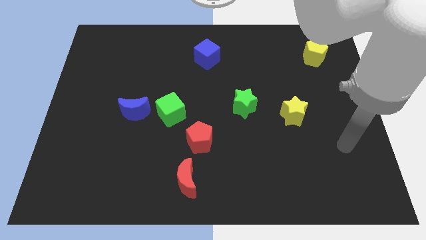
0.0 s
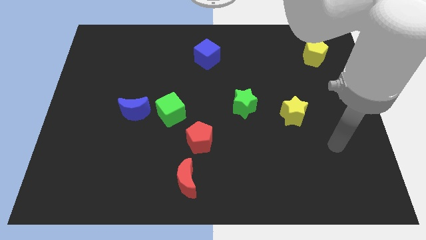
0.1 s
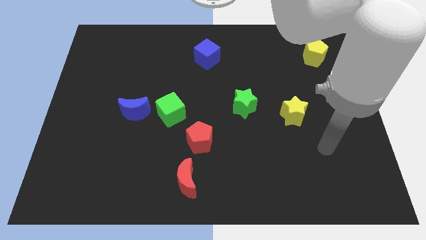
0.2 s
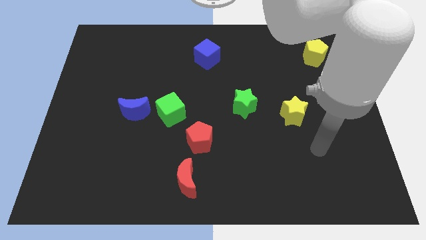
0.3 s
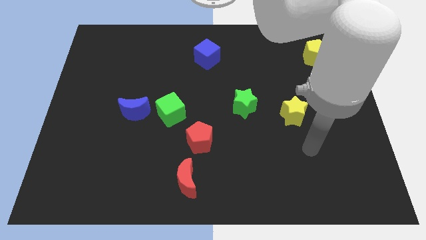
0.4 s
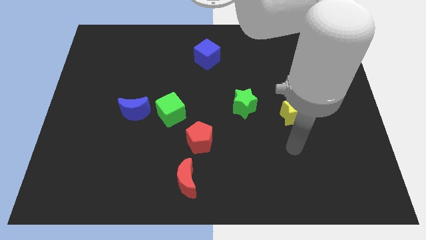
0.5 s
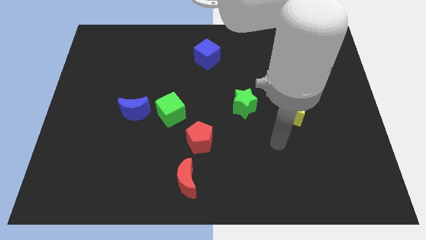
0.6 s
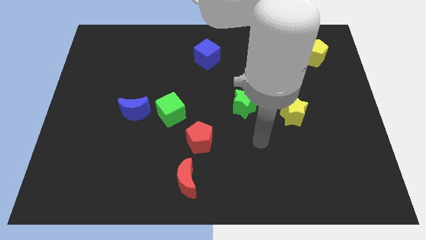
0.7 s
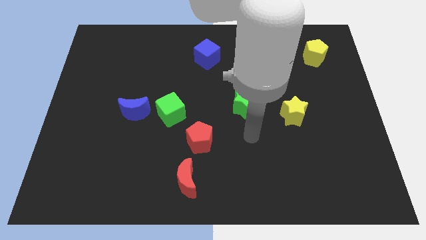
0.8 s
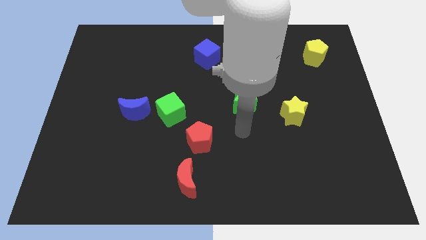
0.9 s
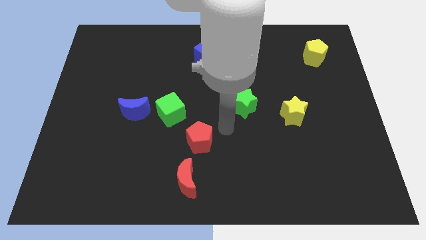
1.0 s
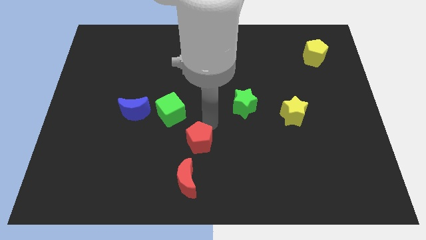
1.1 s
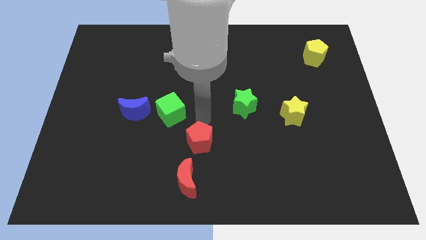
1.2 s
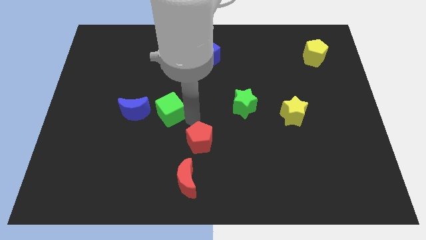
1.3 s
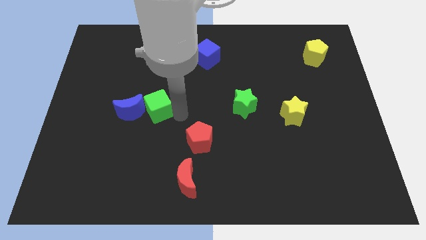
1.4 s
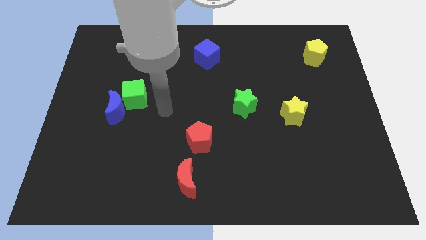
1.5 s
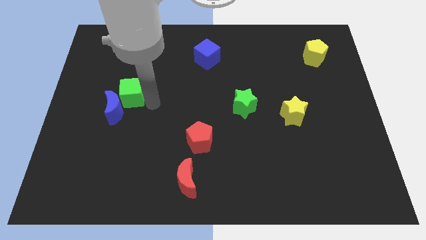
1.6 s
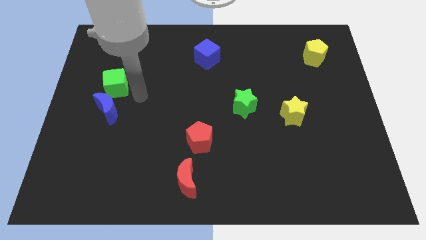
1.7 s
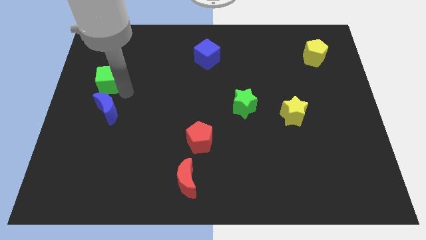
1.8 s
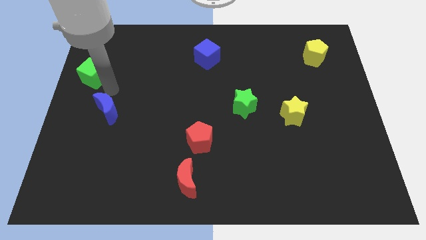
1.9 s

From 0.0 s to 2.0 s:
move the blue moon away from the green cube

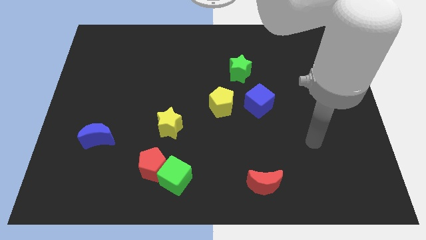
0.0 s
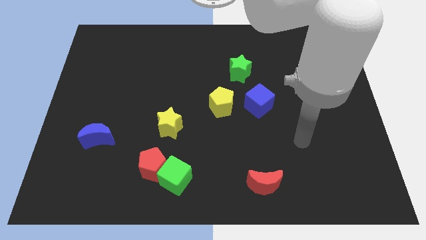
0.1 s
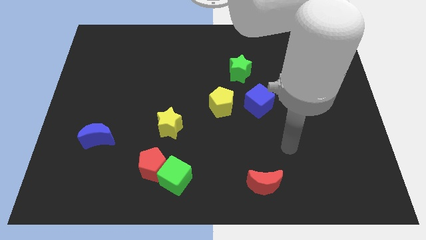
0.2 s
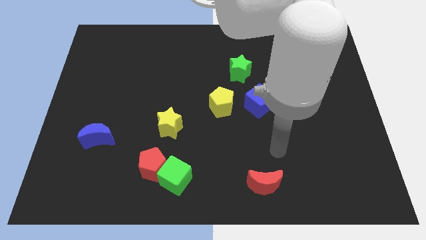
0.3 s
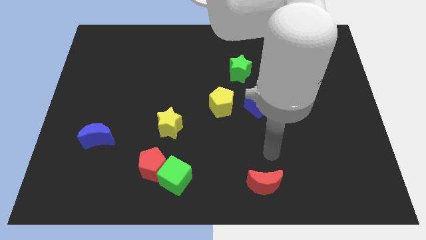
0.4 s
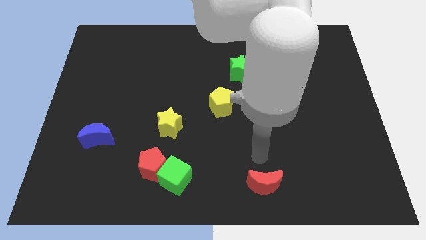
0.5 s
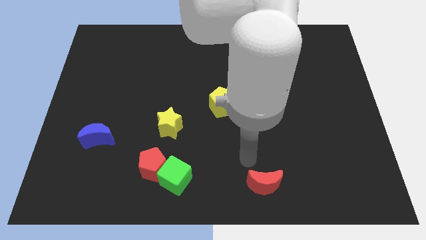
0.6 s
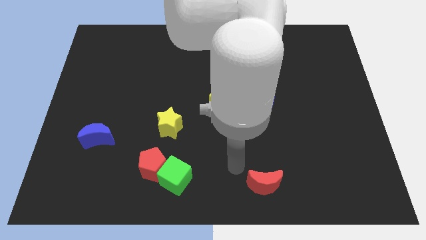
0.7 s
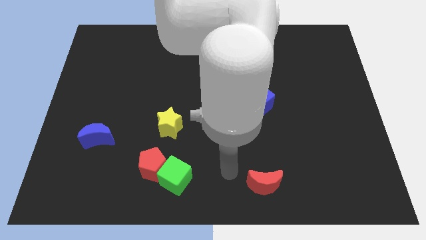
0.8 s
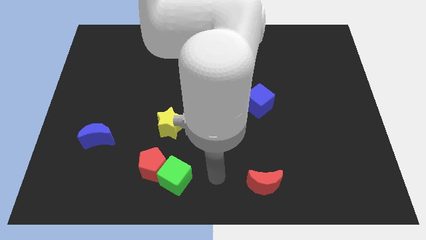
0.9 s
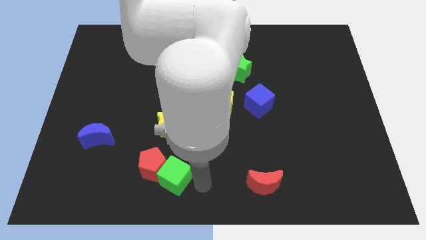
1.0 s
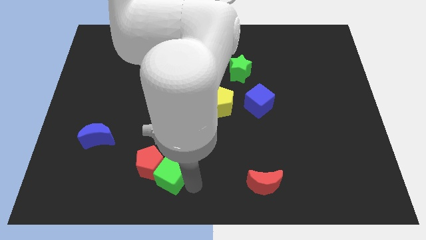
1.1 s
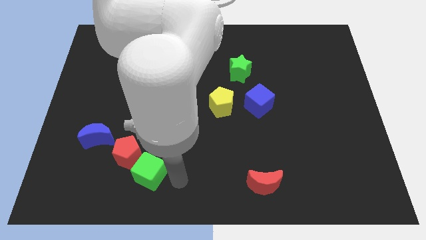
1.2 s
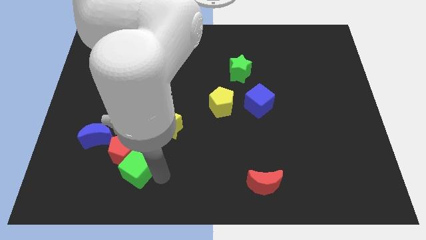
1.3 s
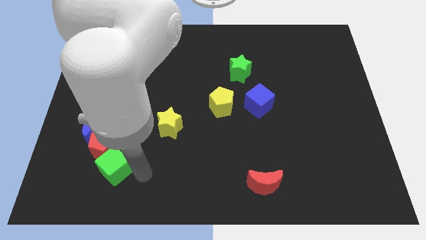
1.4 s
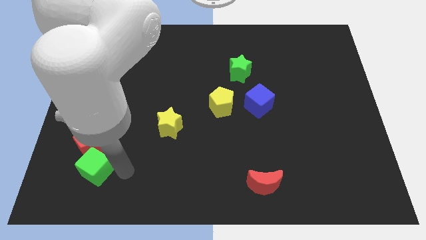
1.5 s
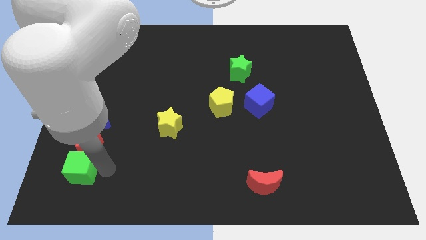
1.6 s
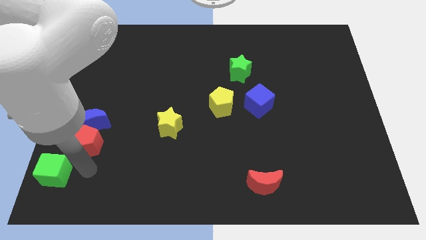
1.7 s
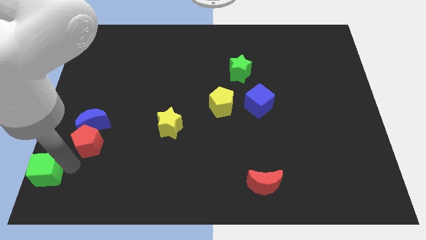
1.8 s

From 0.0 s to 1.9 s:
separate the red pentagon from the green cube

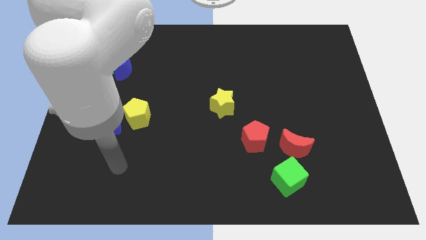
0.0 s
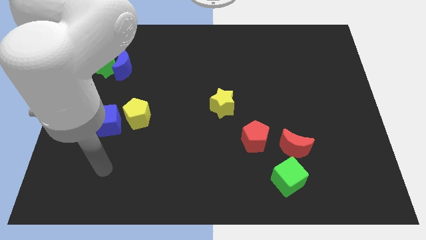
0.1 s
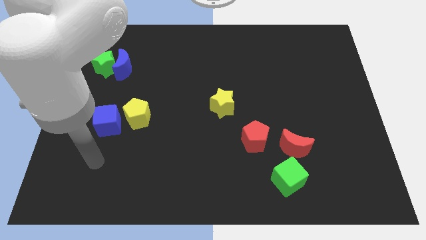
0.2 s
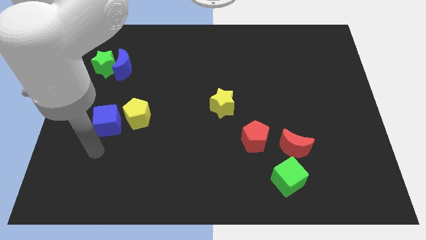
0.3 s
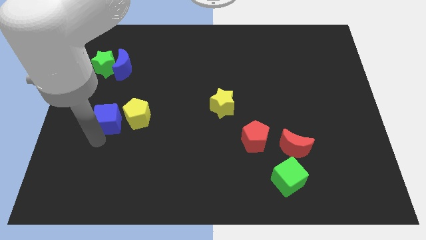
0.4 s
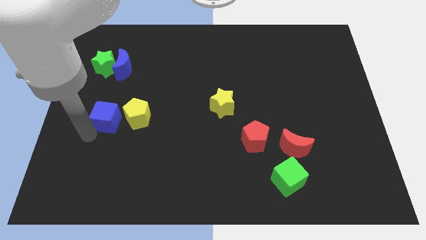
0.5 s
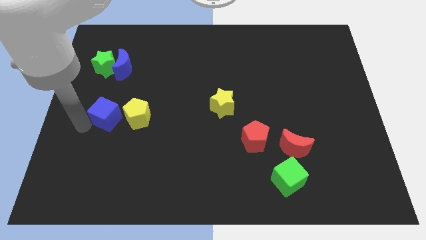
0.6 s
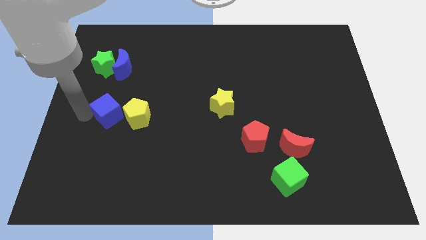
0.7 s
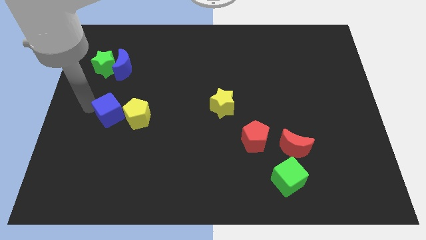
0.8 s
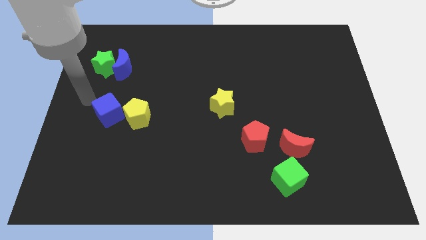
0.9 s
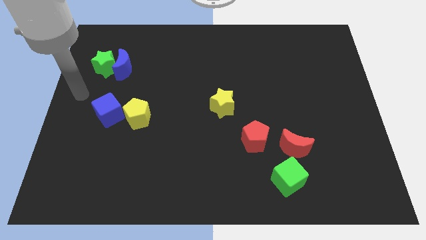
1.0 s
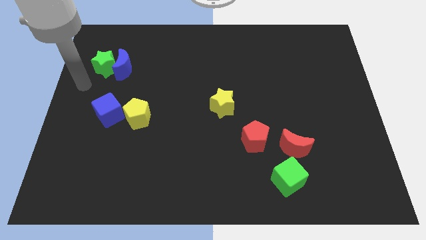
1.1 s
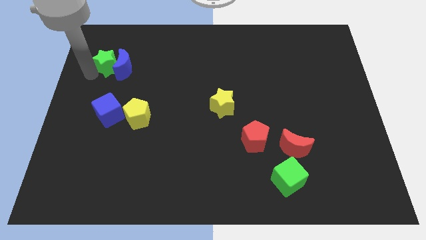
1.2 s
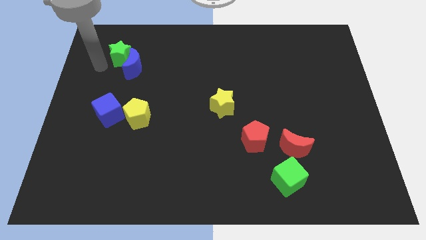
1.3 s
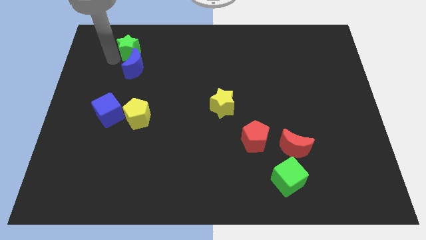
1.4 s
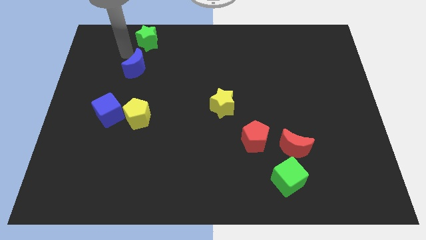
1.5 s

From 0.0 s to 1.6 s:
move the blue moon away from the green star

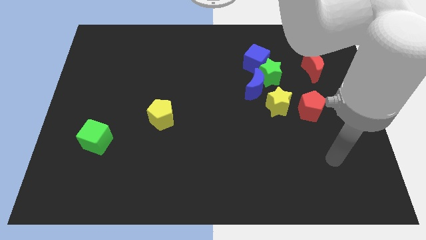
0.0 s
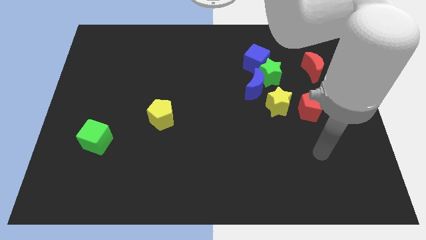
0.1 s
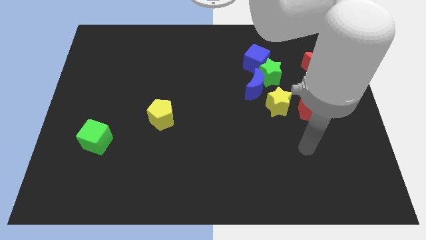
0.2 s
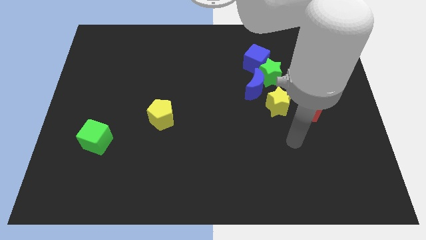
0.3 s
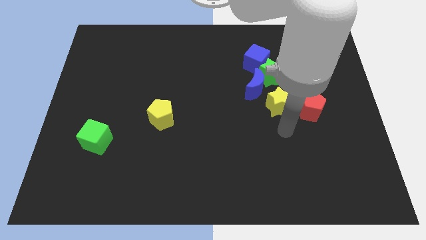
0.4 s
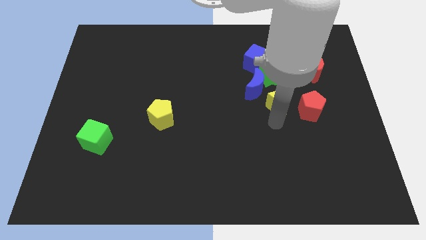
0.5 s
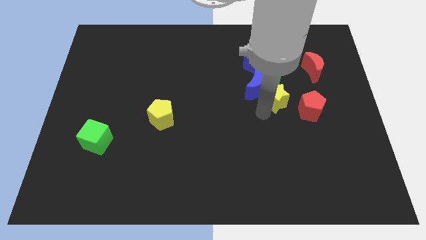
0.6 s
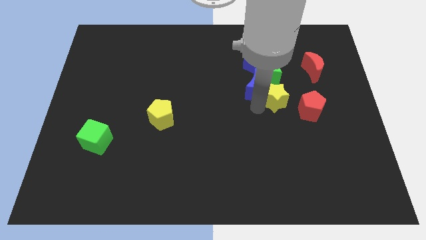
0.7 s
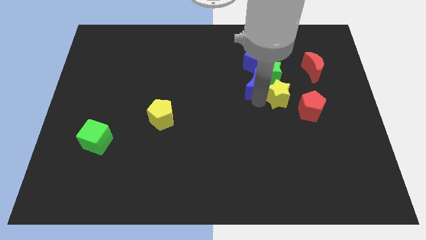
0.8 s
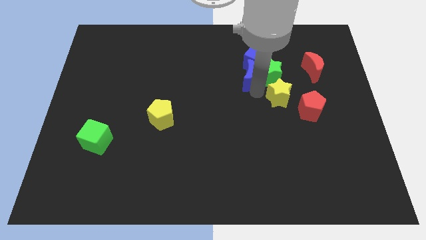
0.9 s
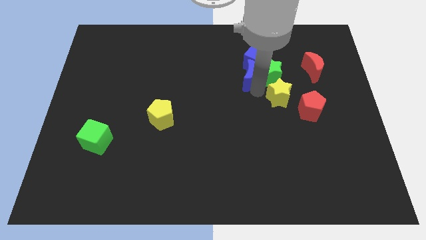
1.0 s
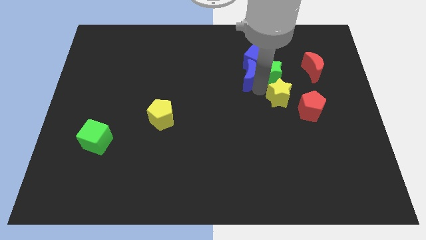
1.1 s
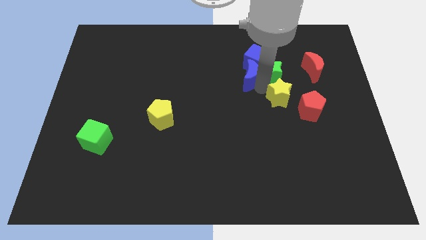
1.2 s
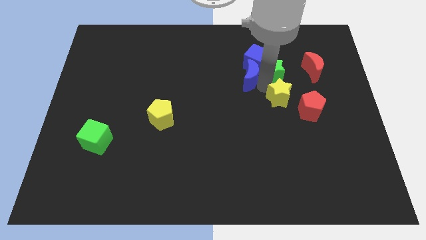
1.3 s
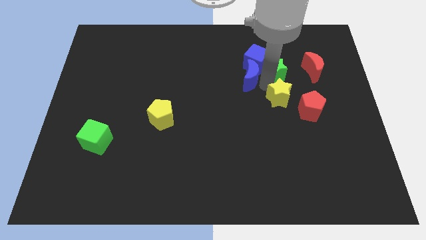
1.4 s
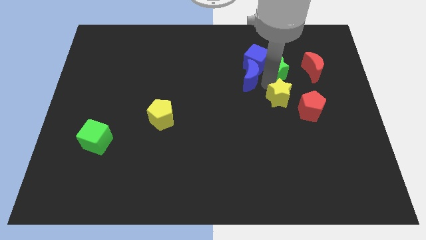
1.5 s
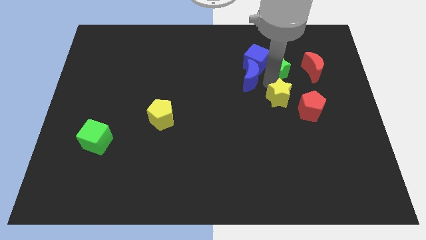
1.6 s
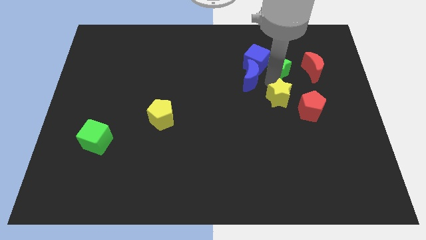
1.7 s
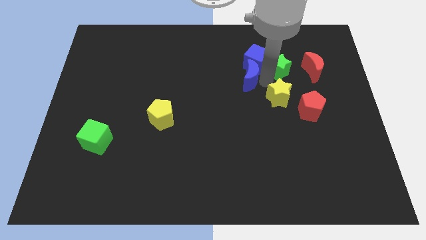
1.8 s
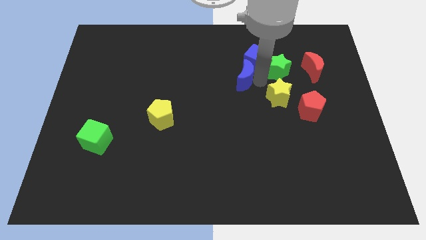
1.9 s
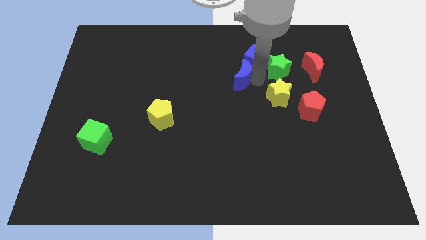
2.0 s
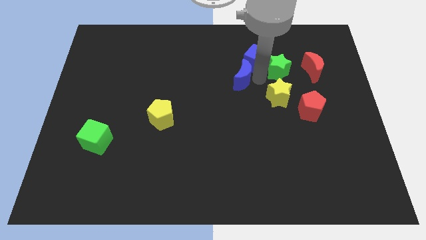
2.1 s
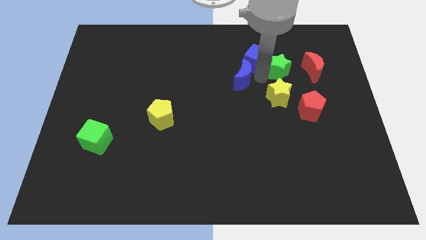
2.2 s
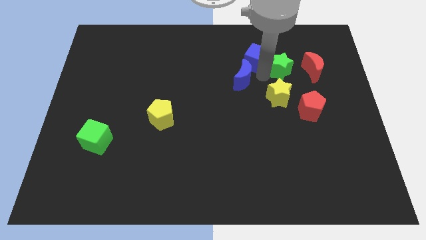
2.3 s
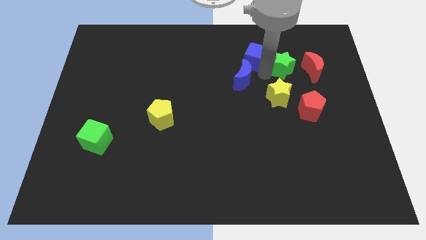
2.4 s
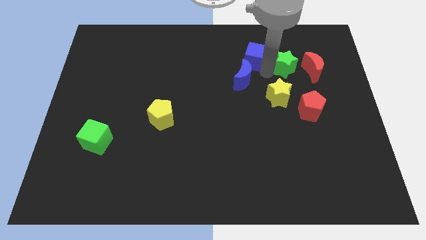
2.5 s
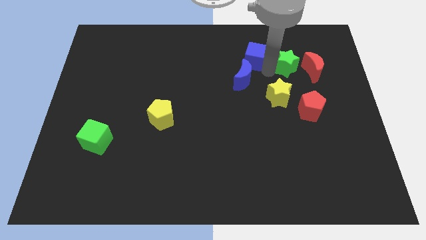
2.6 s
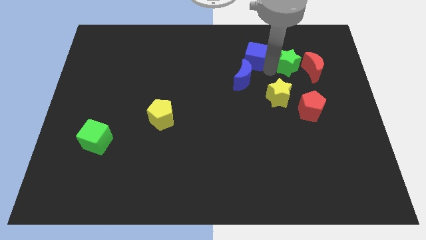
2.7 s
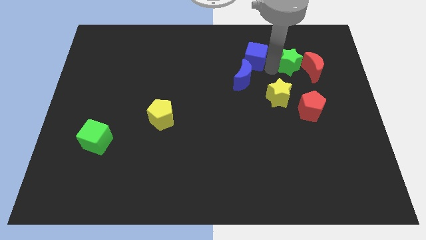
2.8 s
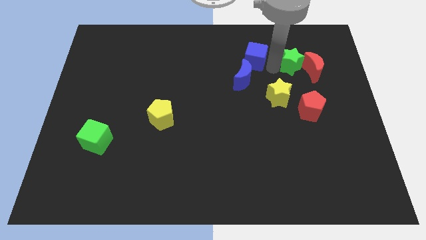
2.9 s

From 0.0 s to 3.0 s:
separate the green star from the blue cube, blue moon, and yellow star

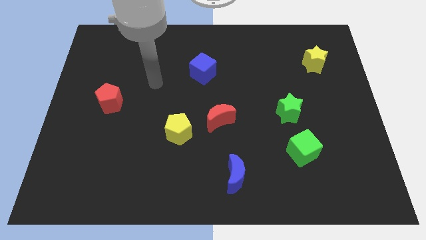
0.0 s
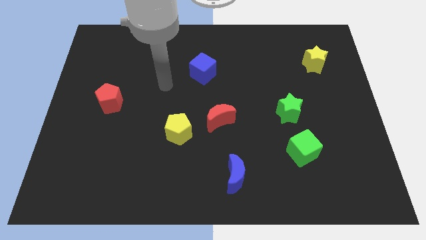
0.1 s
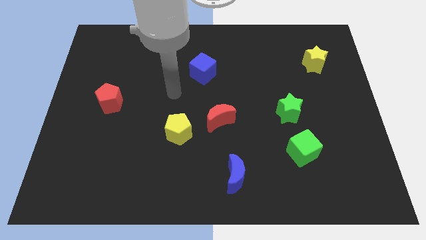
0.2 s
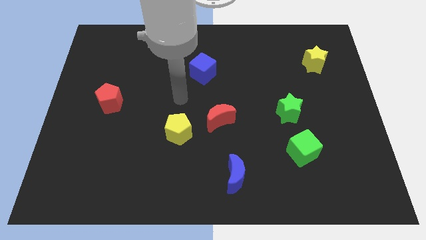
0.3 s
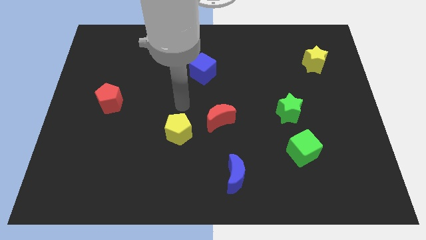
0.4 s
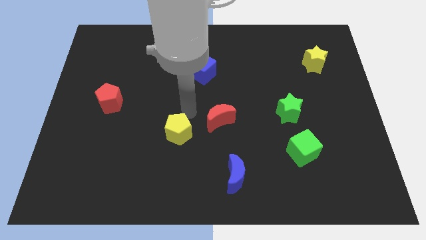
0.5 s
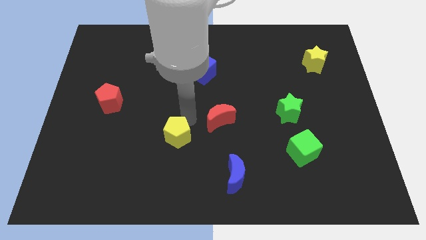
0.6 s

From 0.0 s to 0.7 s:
pull the red moon apart from the yellow pentagon

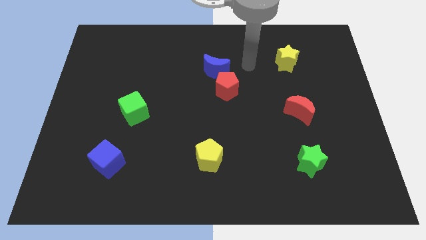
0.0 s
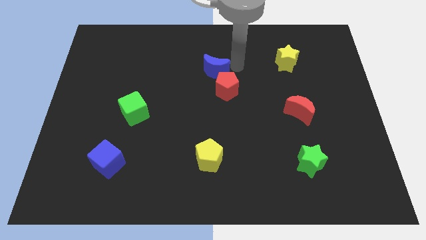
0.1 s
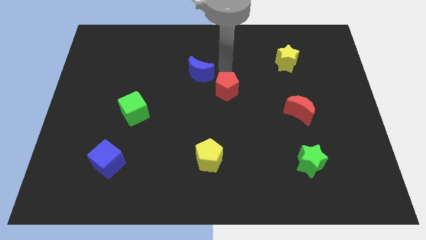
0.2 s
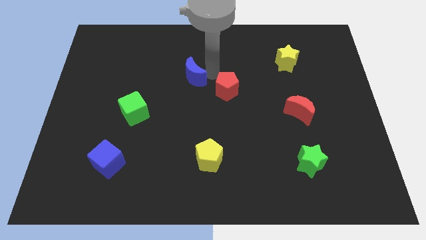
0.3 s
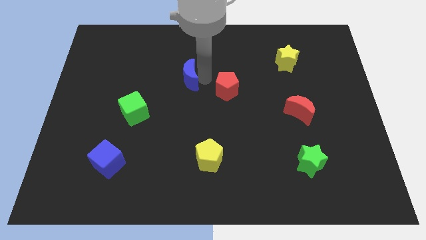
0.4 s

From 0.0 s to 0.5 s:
separate the red pentagon from the blue moon
